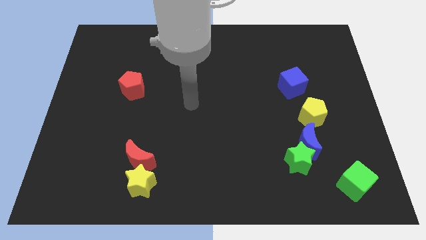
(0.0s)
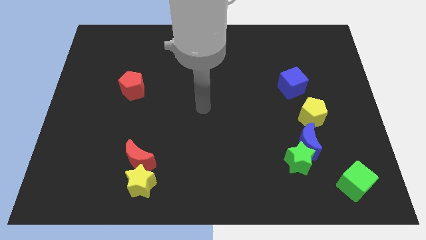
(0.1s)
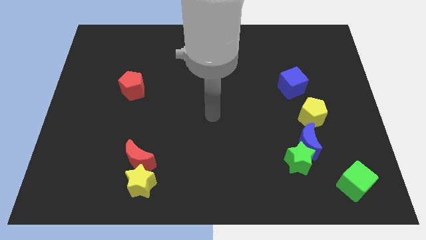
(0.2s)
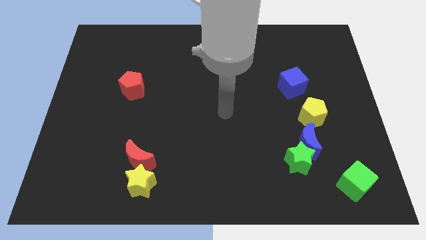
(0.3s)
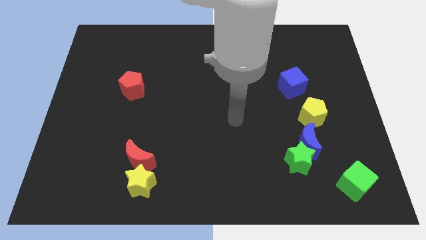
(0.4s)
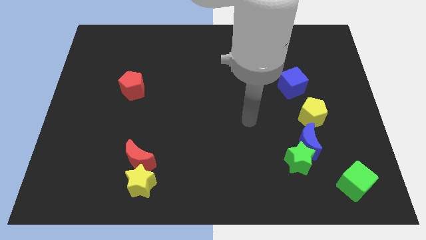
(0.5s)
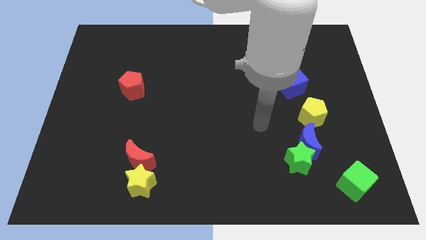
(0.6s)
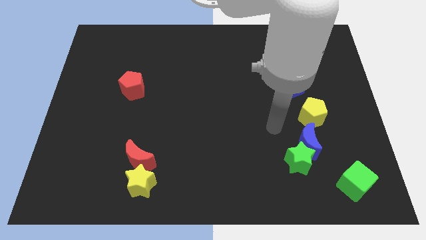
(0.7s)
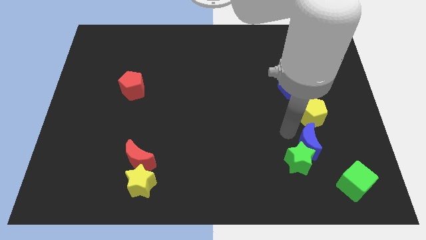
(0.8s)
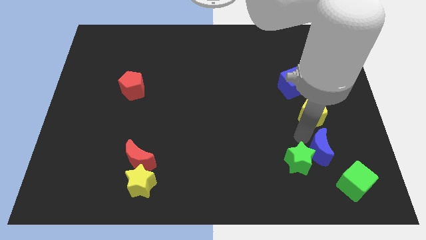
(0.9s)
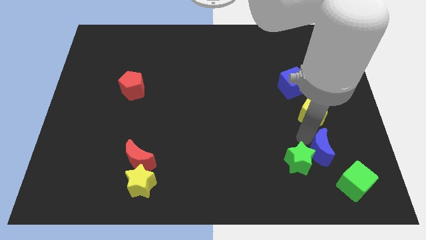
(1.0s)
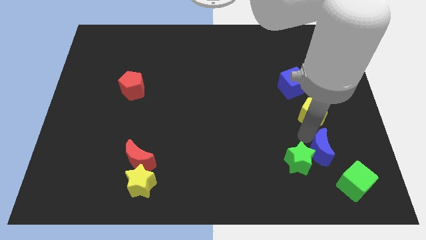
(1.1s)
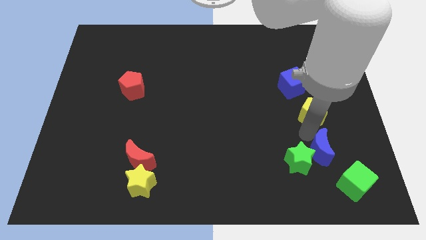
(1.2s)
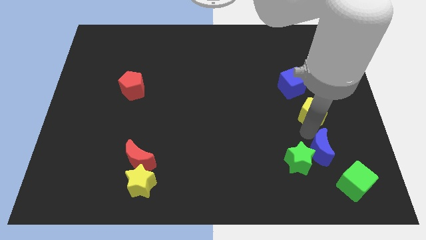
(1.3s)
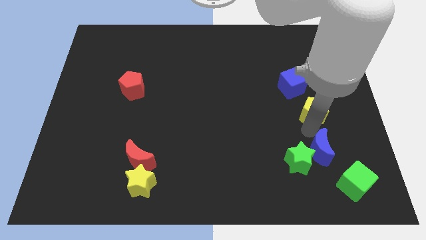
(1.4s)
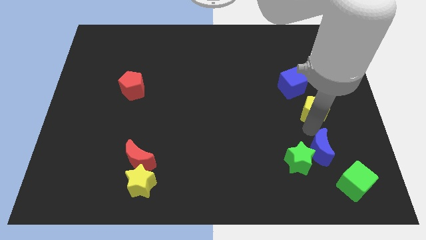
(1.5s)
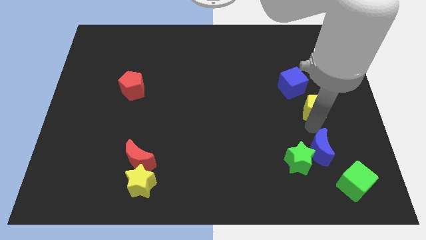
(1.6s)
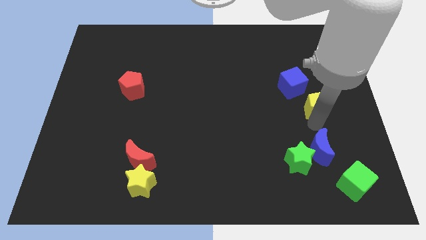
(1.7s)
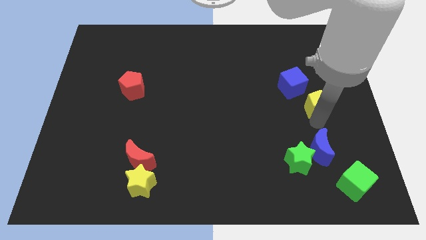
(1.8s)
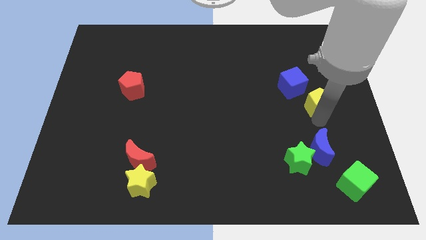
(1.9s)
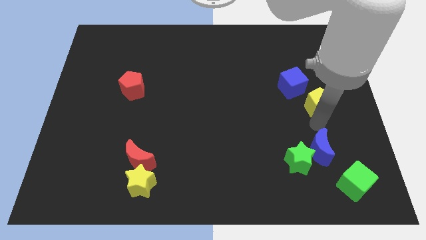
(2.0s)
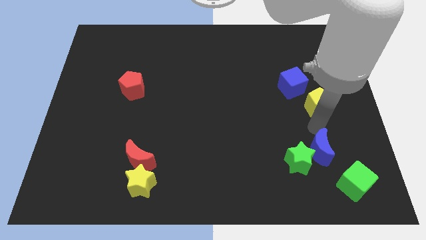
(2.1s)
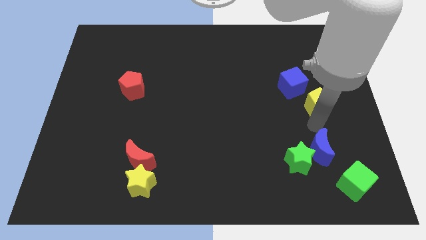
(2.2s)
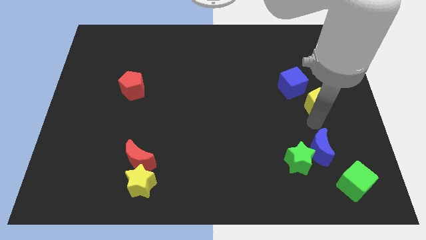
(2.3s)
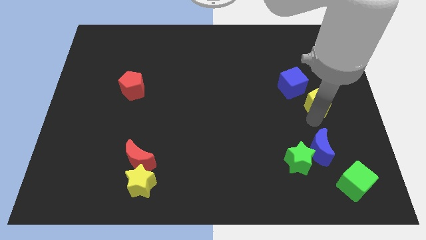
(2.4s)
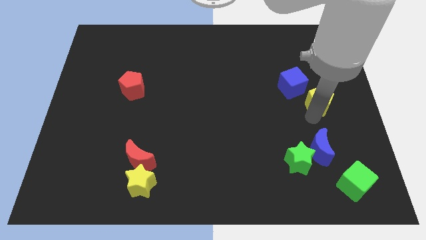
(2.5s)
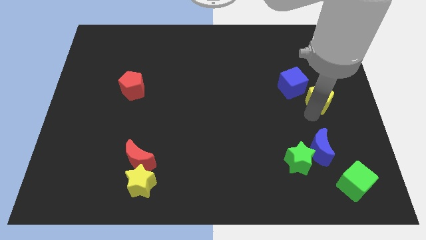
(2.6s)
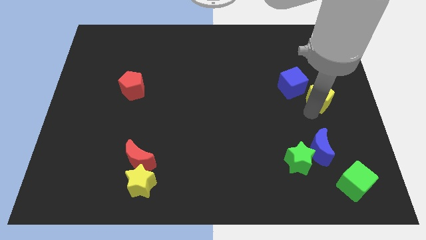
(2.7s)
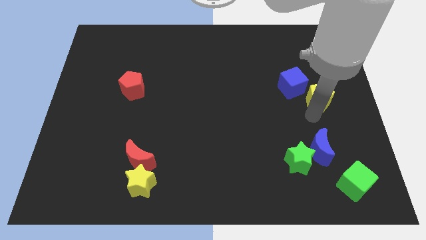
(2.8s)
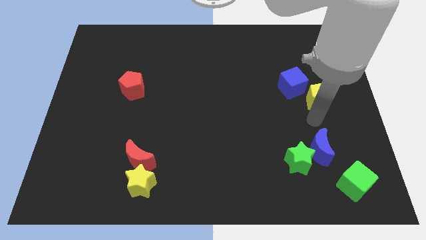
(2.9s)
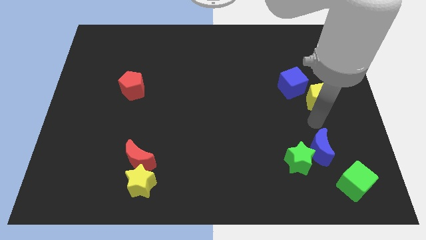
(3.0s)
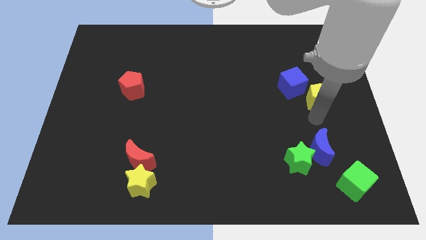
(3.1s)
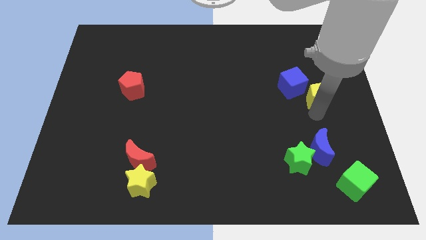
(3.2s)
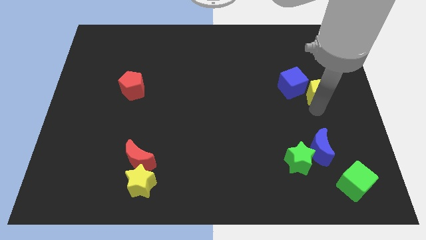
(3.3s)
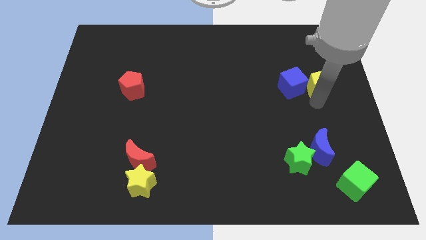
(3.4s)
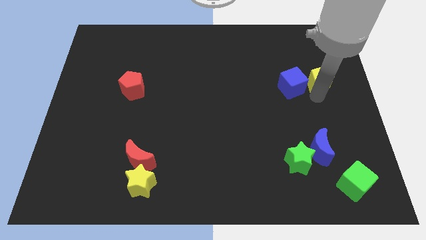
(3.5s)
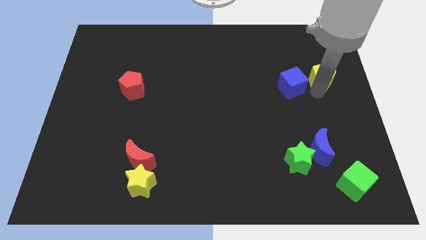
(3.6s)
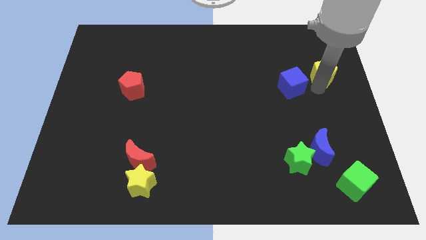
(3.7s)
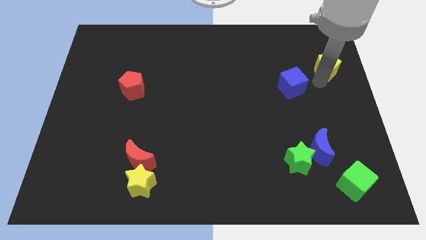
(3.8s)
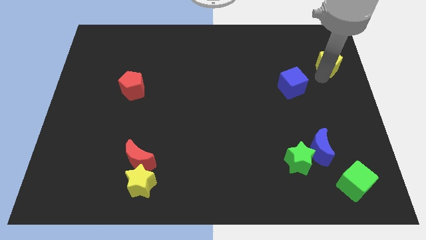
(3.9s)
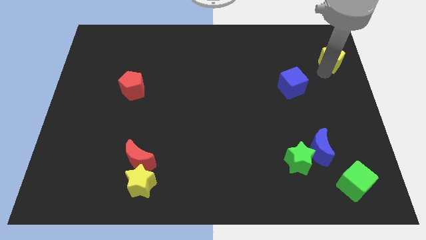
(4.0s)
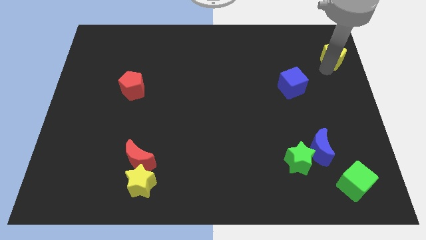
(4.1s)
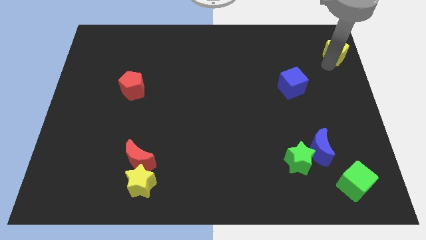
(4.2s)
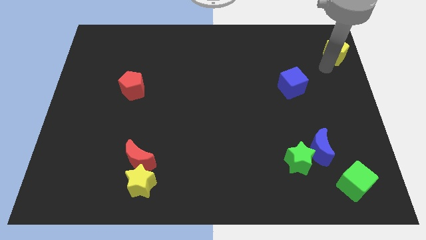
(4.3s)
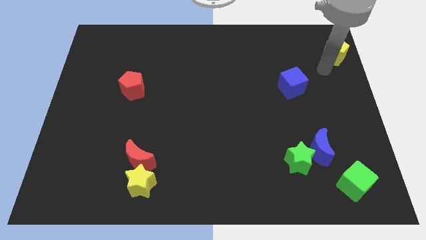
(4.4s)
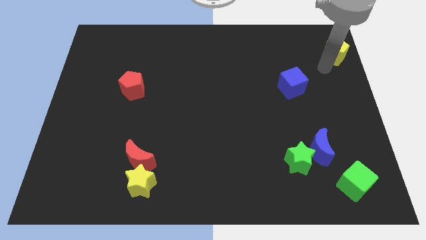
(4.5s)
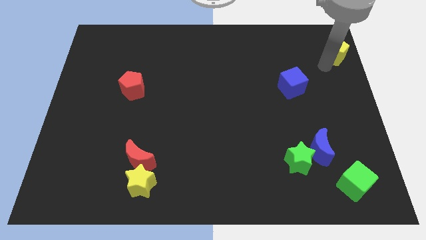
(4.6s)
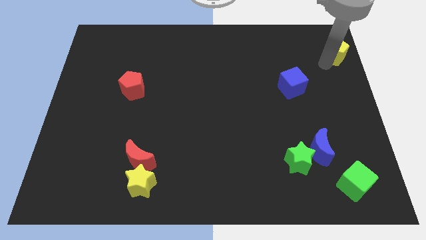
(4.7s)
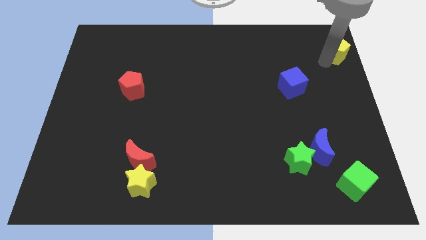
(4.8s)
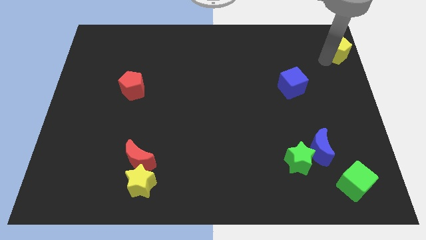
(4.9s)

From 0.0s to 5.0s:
push the yellow pentagon to the top right corner

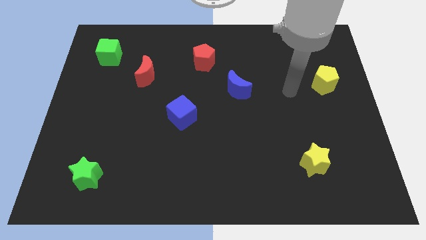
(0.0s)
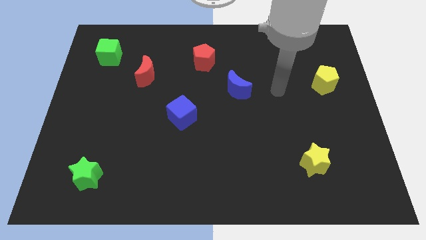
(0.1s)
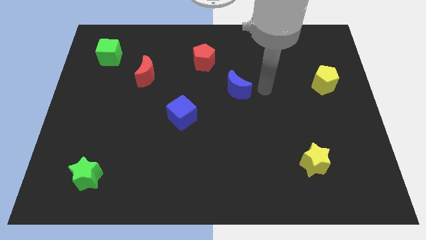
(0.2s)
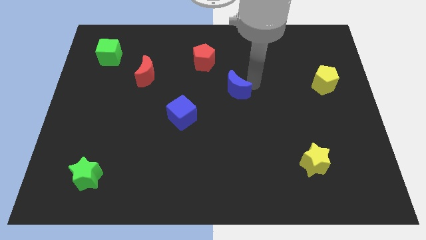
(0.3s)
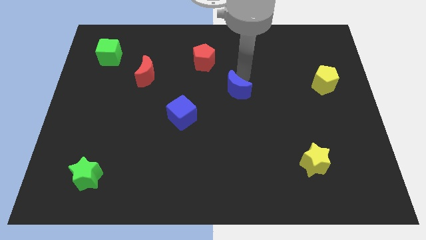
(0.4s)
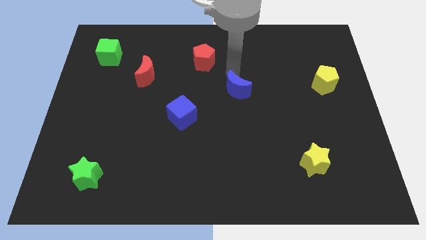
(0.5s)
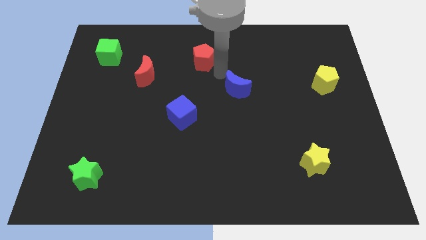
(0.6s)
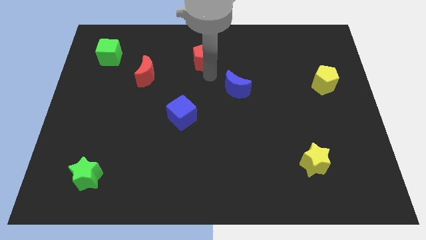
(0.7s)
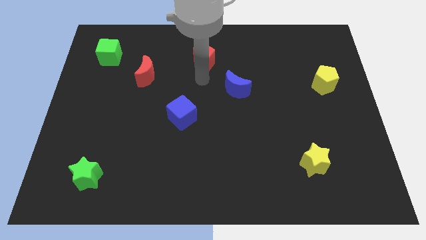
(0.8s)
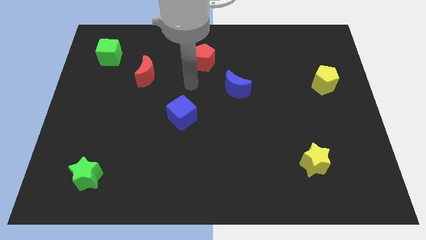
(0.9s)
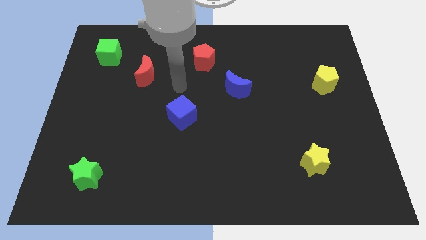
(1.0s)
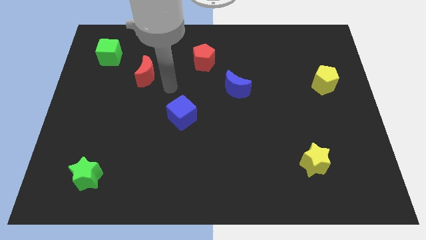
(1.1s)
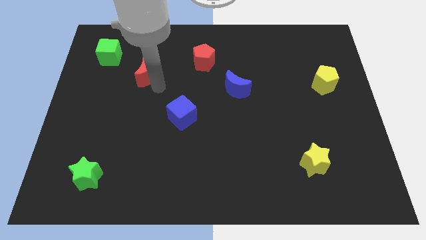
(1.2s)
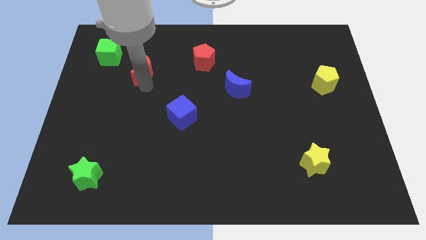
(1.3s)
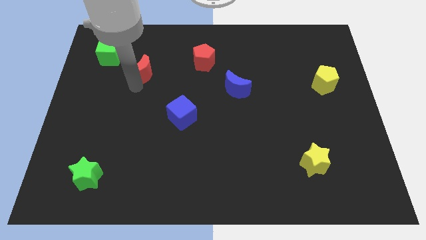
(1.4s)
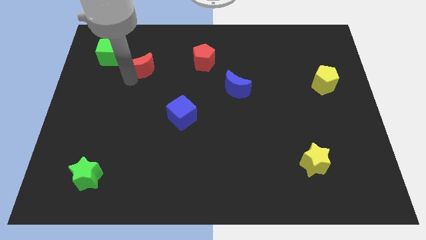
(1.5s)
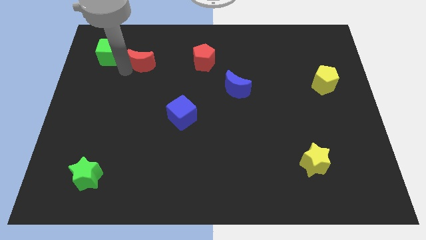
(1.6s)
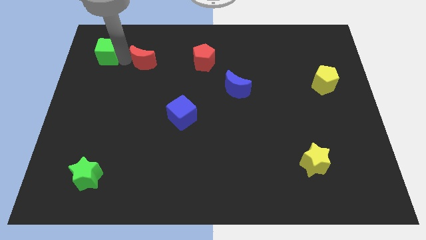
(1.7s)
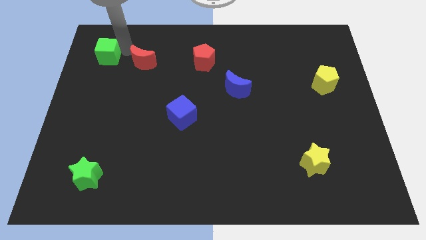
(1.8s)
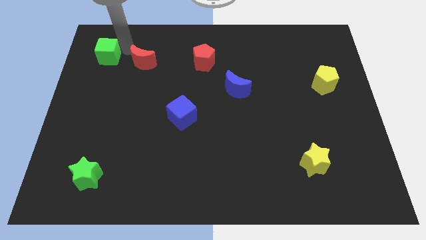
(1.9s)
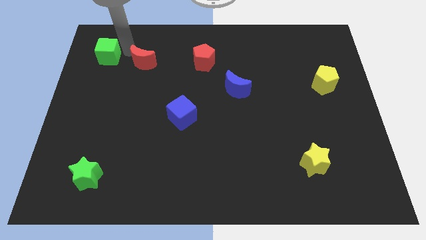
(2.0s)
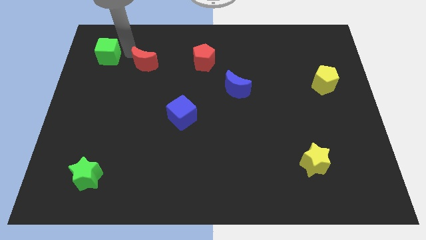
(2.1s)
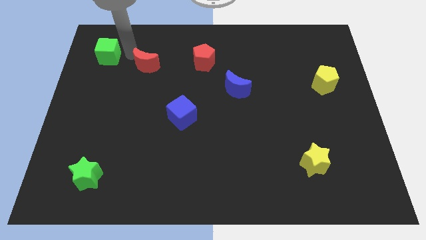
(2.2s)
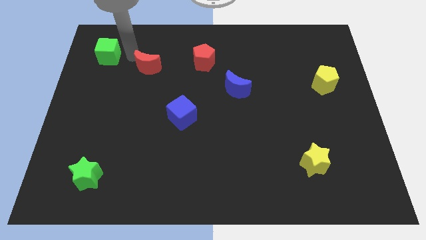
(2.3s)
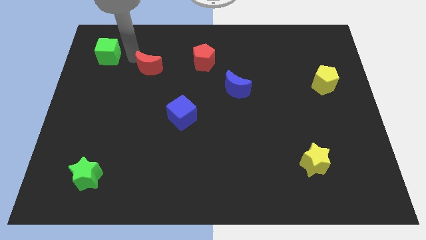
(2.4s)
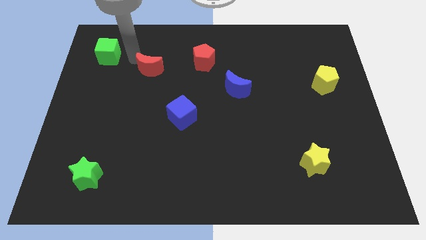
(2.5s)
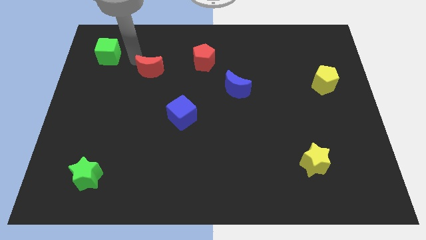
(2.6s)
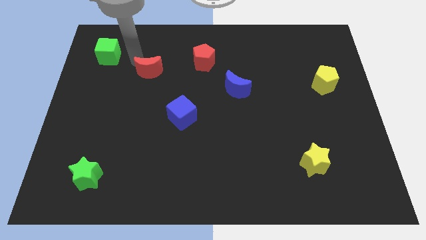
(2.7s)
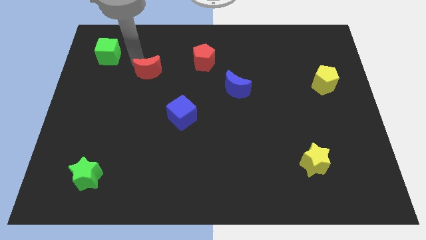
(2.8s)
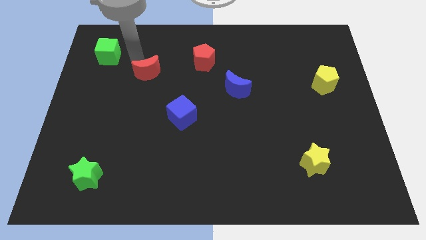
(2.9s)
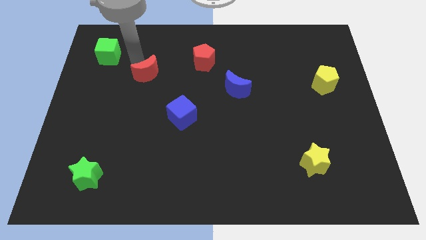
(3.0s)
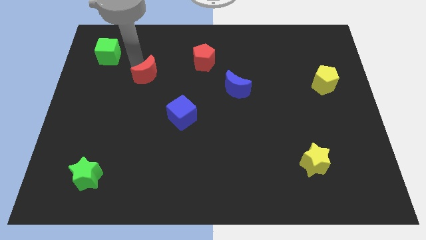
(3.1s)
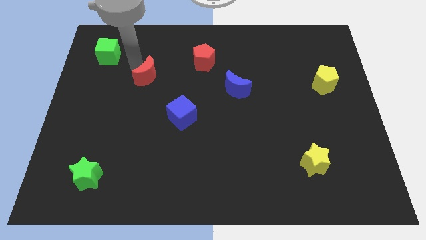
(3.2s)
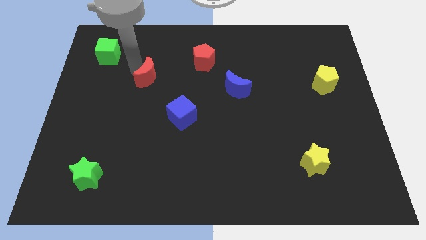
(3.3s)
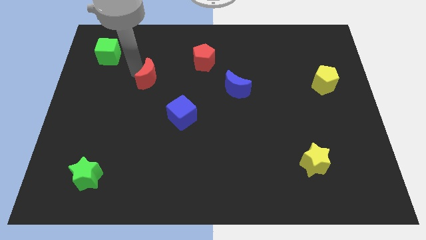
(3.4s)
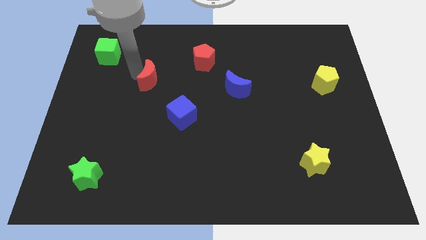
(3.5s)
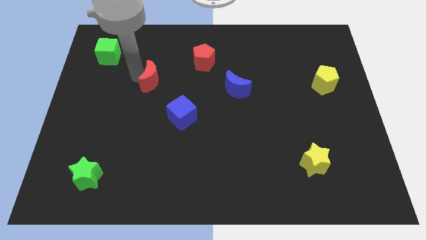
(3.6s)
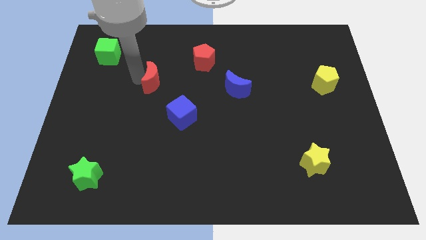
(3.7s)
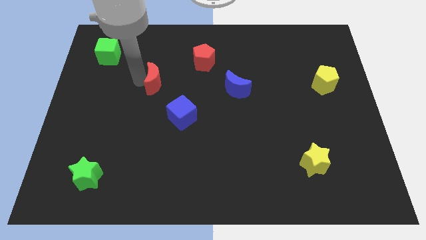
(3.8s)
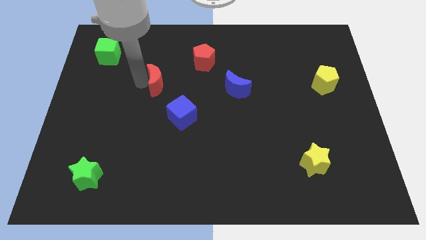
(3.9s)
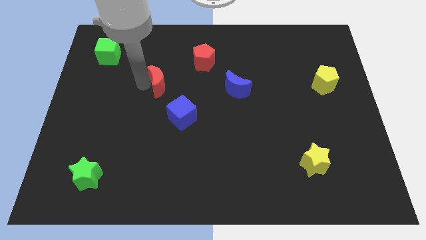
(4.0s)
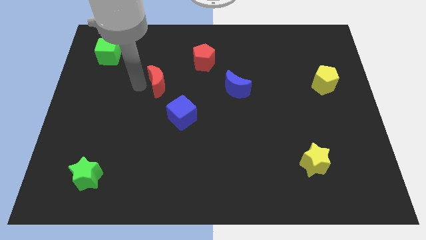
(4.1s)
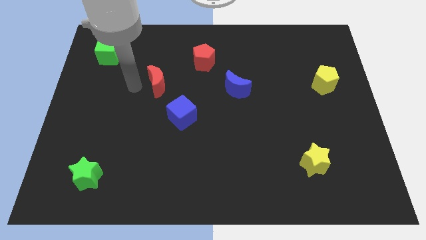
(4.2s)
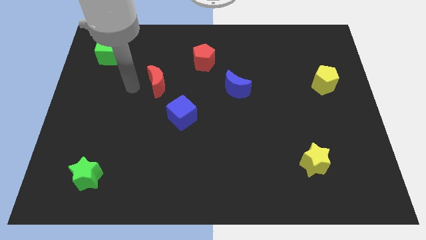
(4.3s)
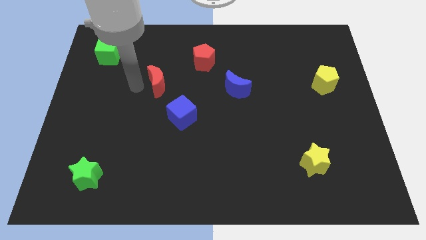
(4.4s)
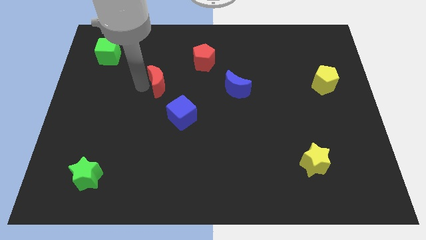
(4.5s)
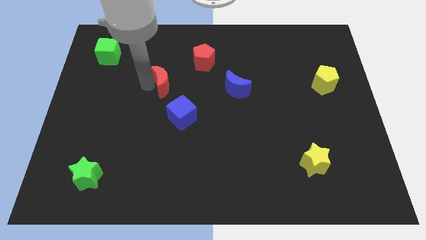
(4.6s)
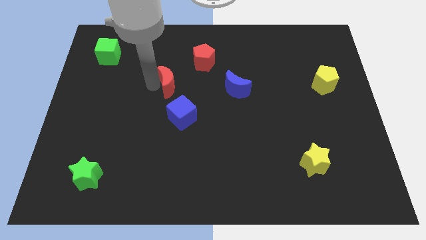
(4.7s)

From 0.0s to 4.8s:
move the red moon to the center of the board
